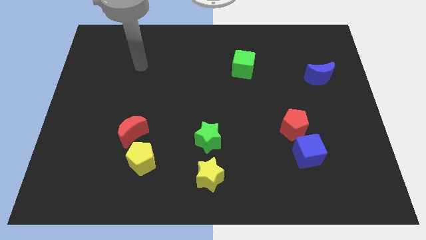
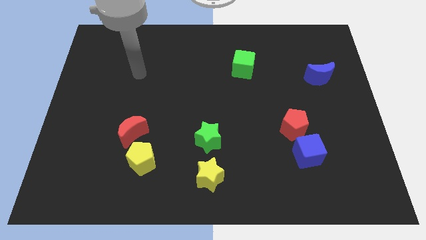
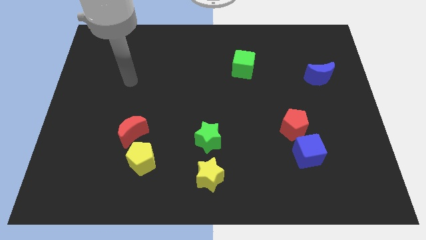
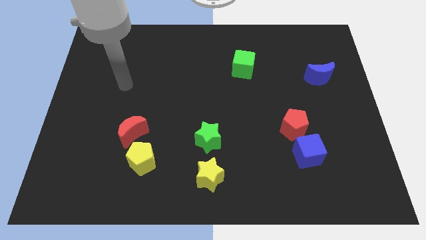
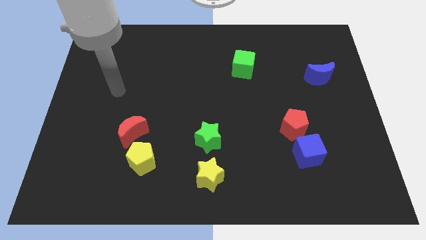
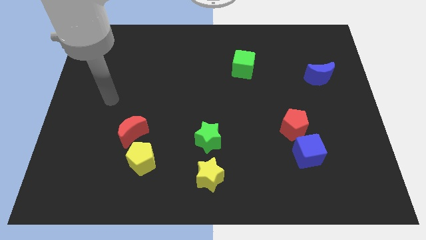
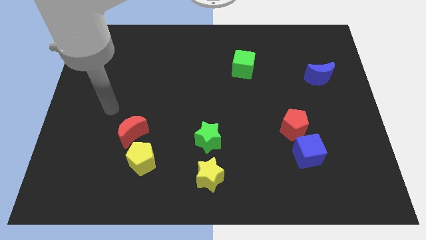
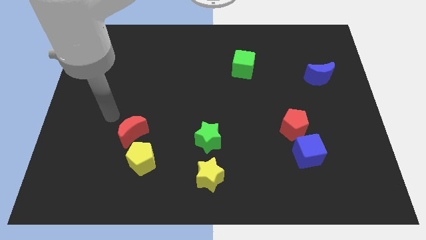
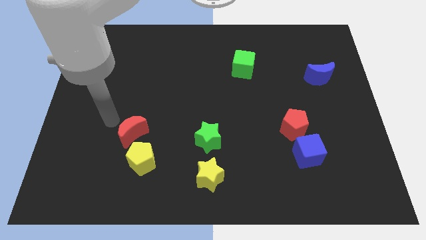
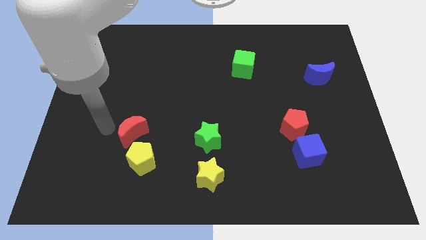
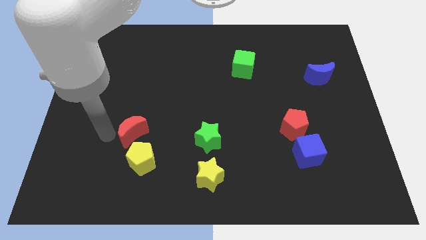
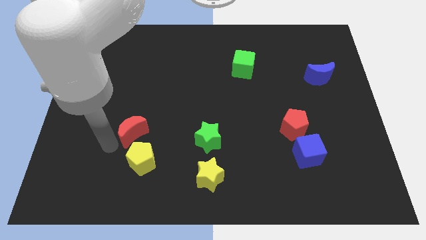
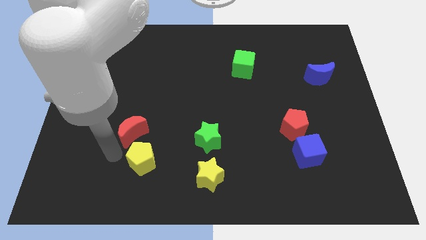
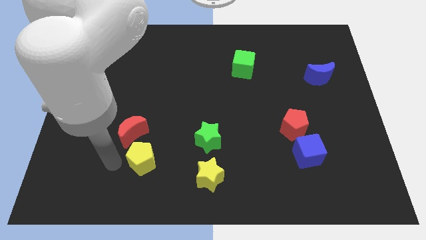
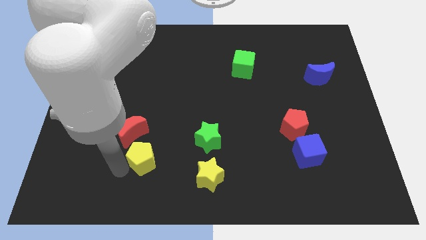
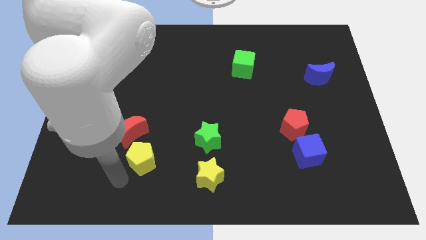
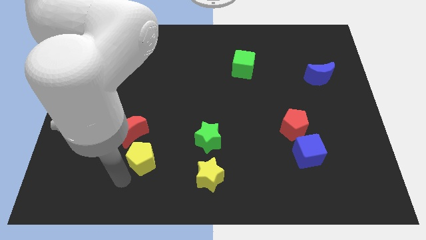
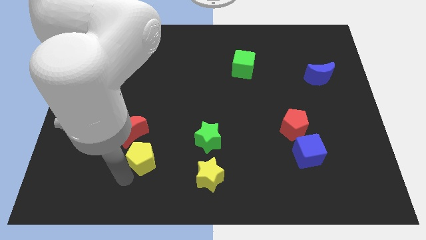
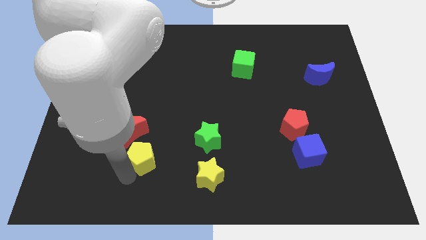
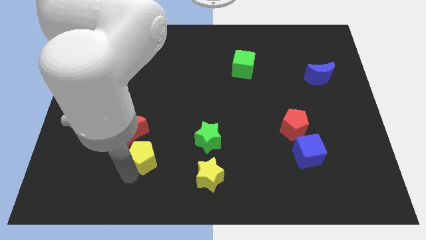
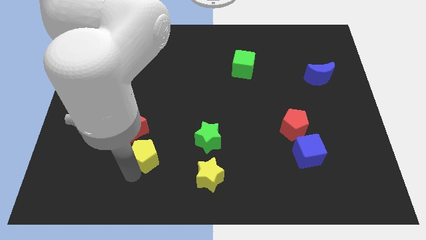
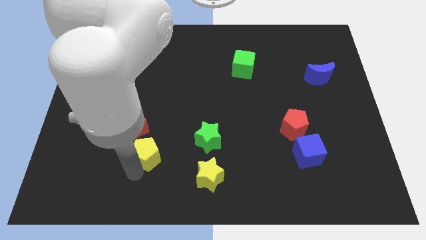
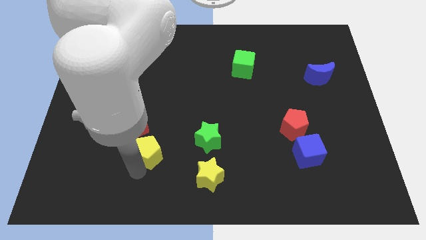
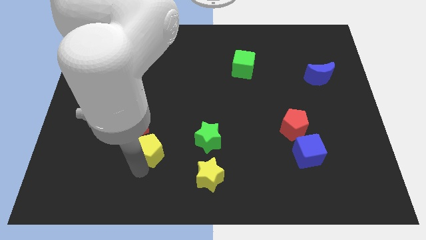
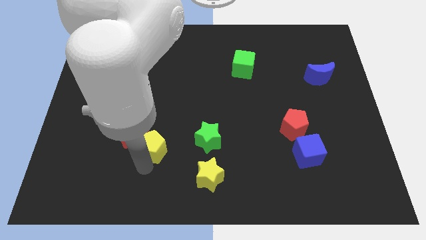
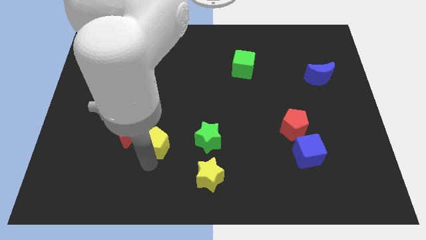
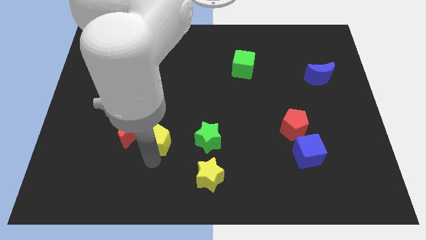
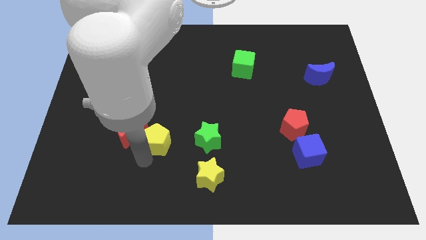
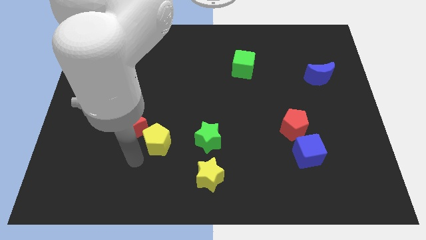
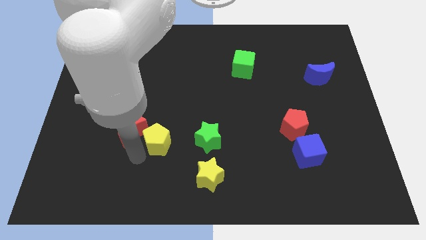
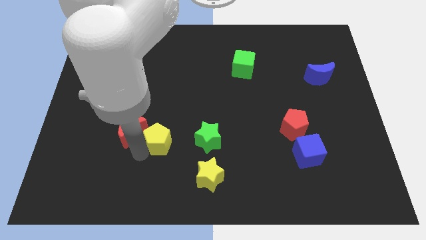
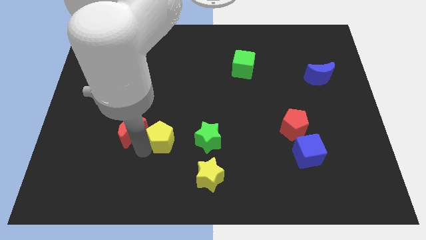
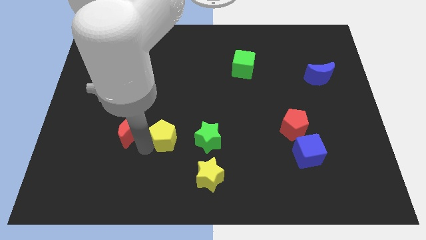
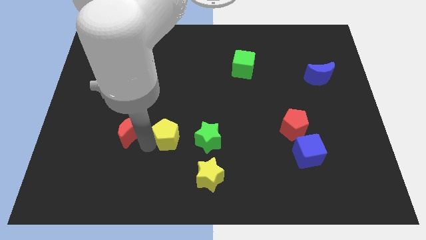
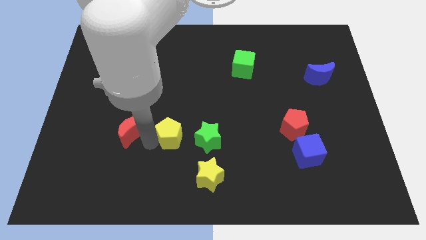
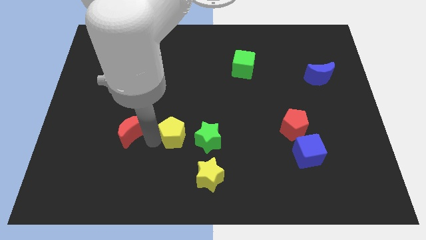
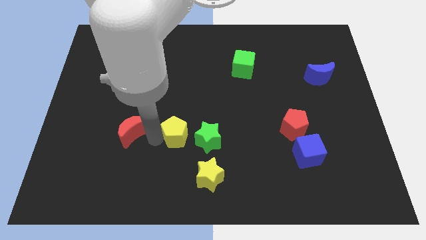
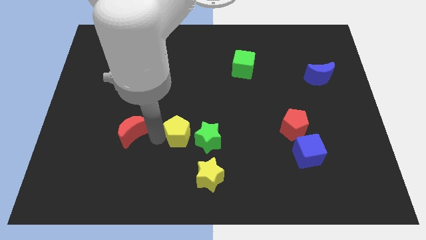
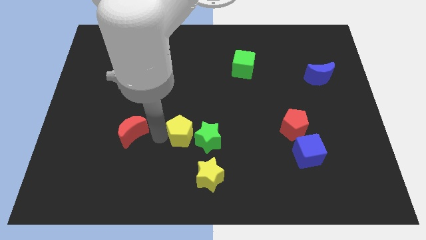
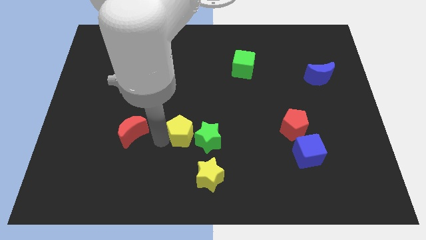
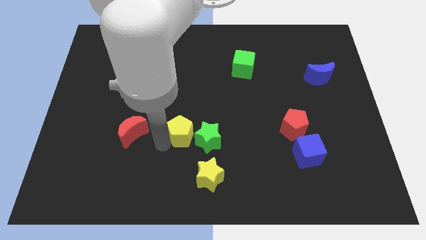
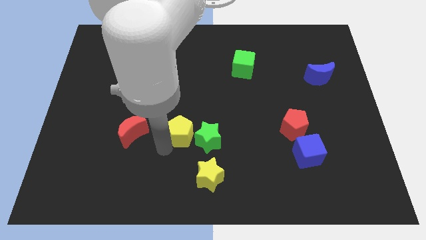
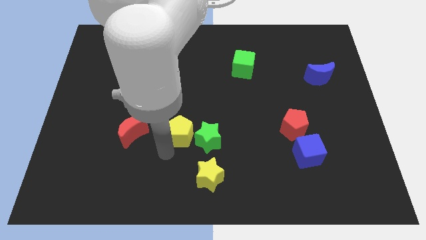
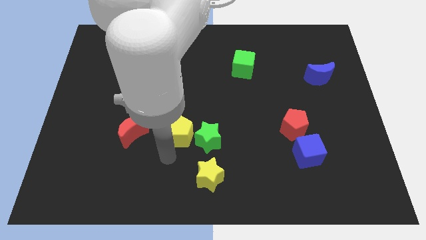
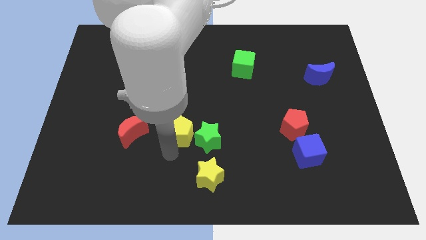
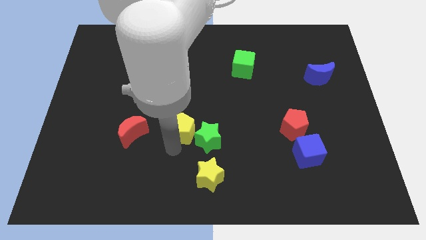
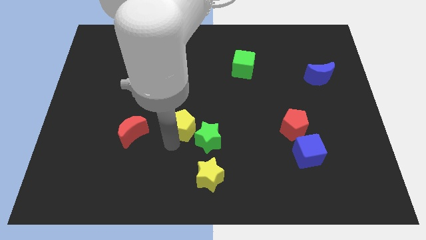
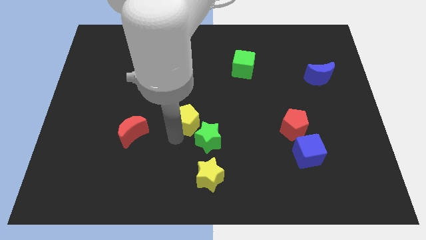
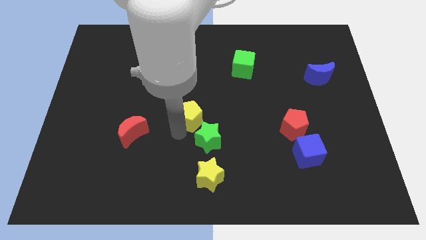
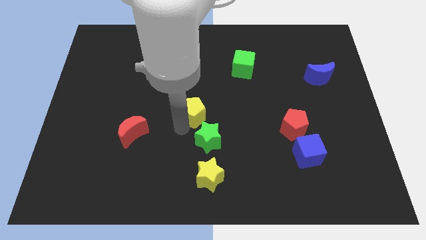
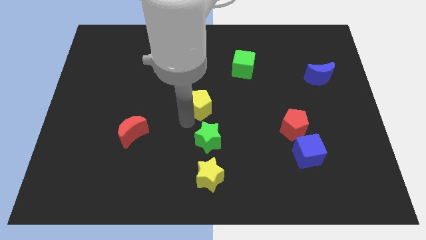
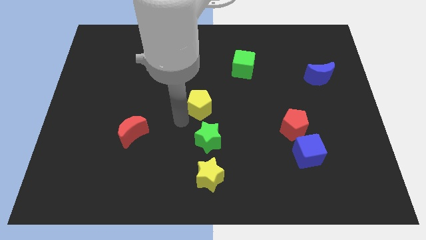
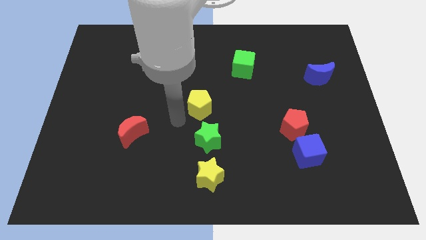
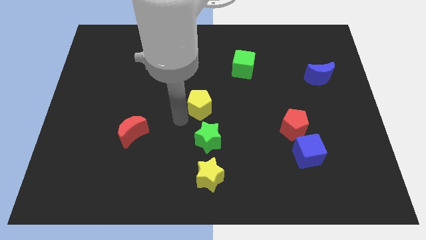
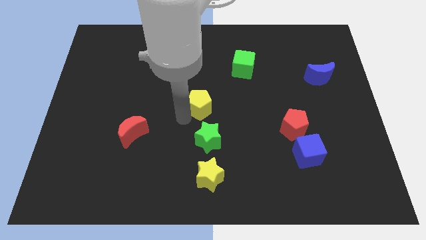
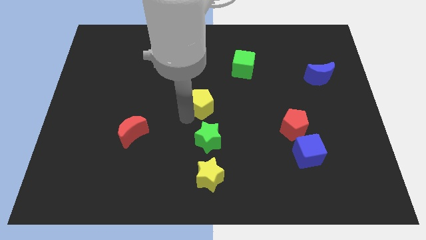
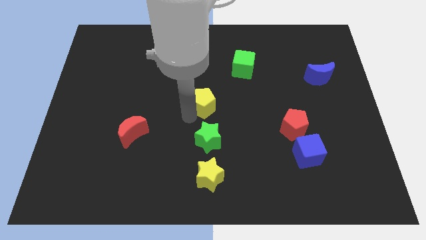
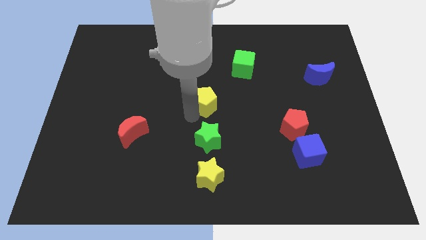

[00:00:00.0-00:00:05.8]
push the yellow pentagon upwards and right diagonally

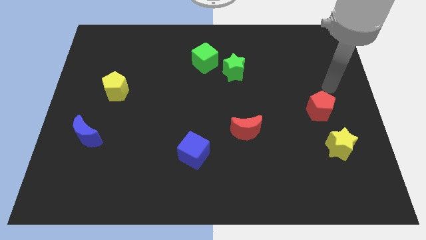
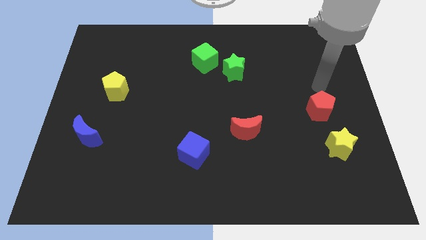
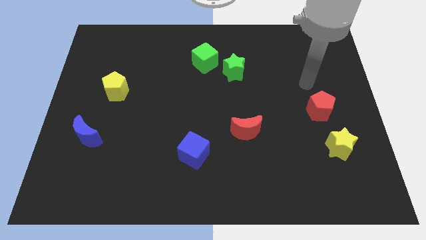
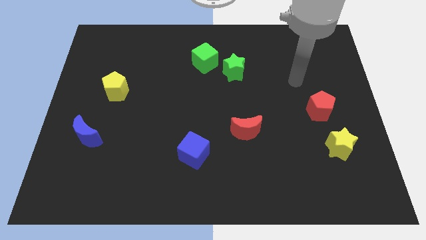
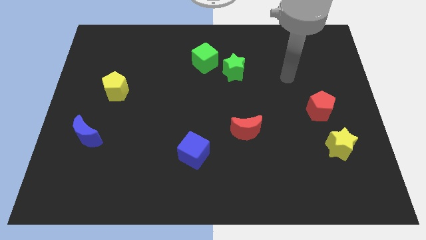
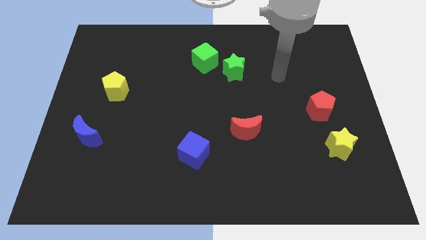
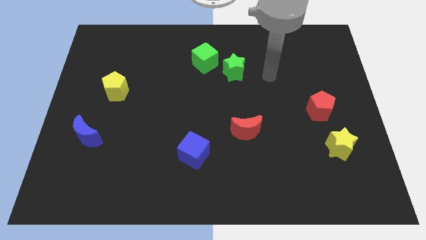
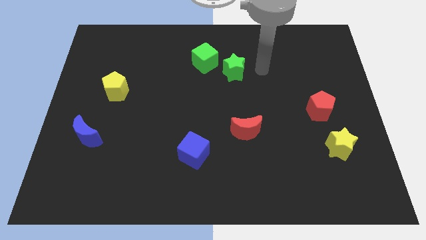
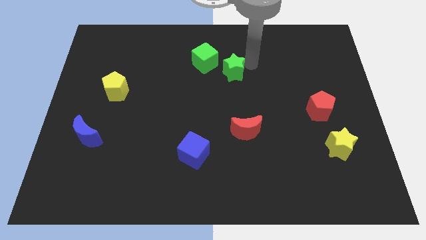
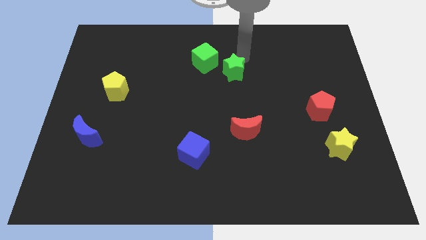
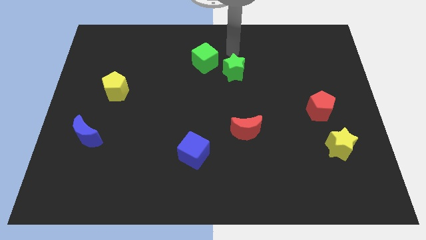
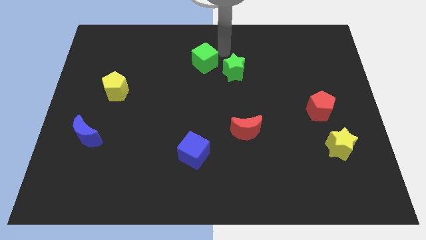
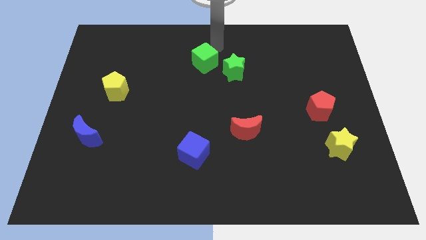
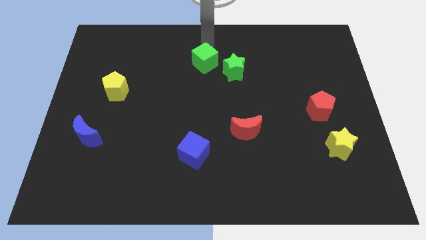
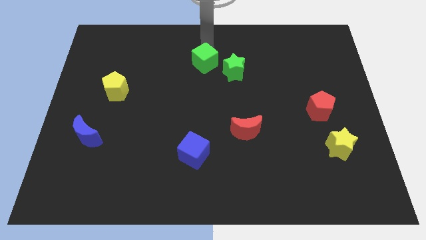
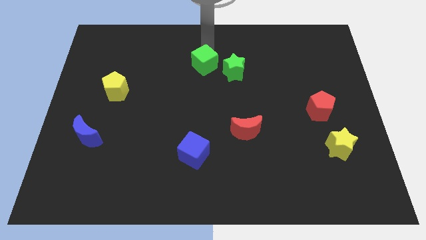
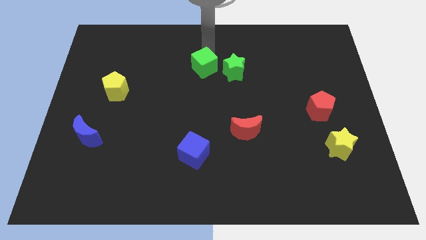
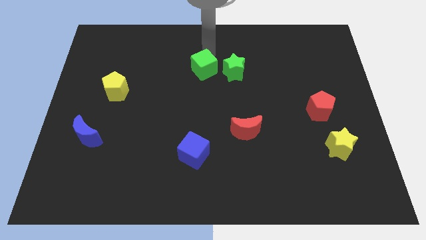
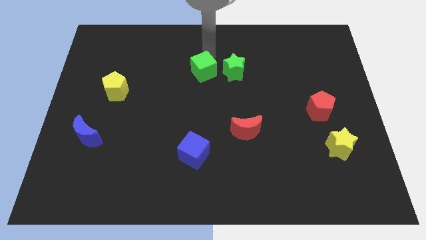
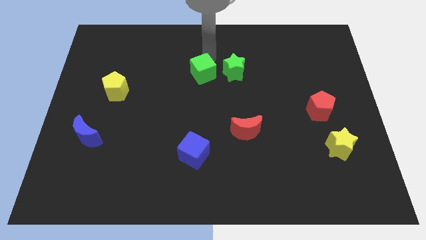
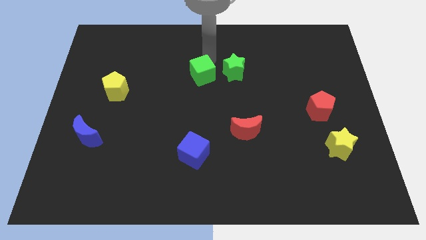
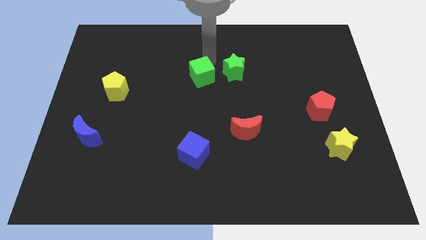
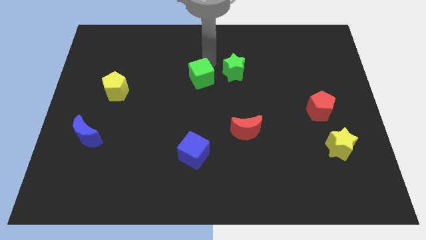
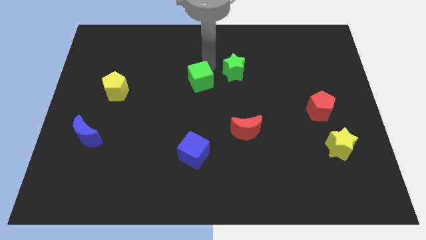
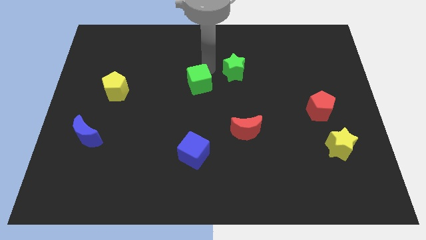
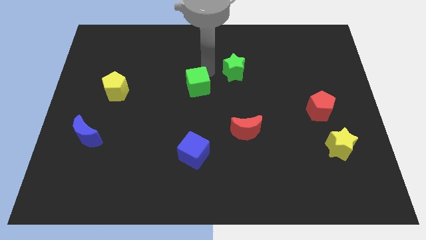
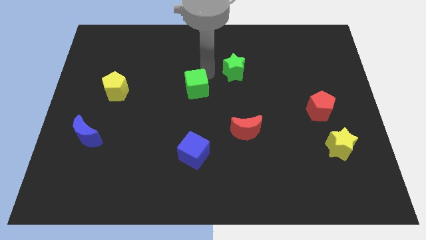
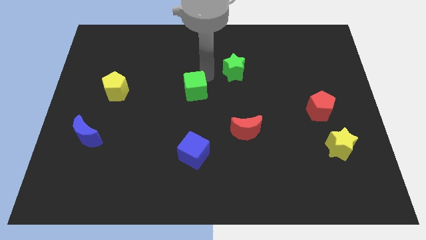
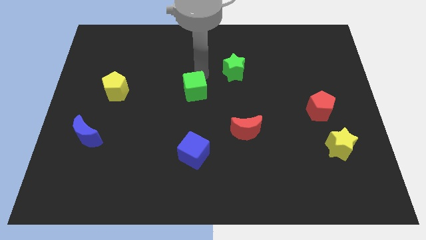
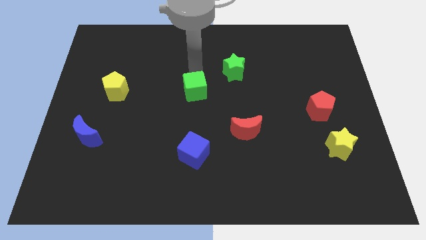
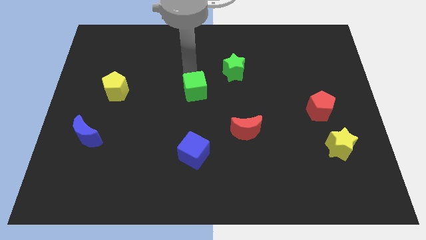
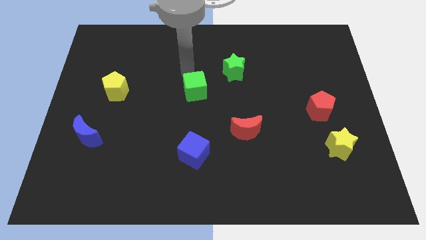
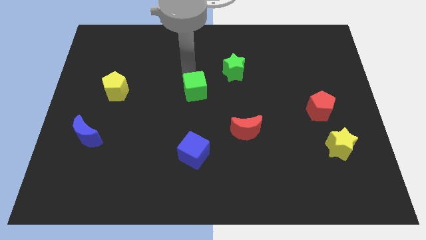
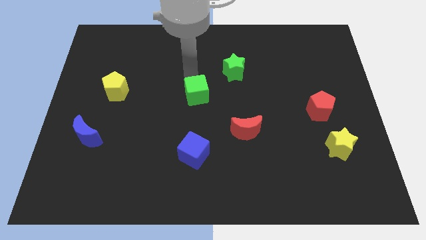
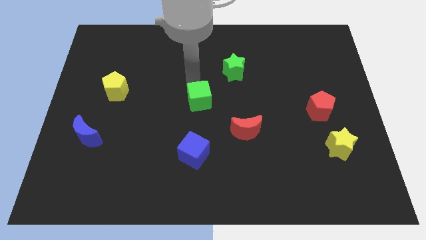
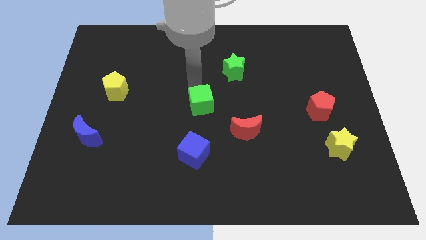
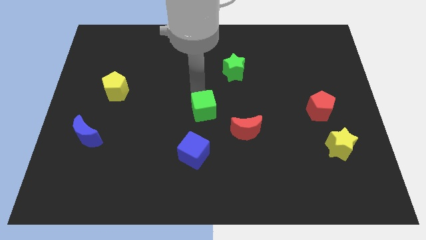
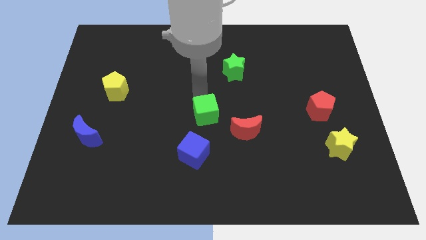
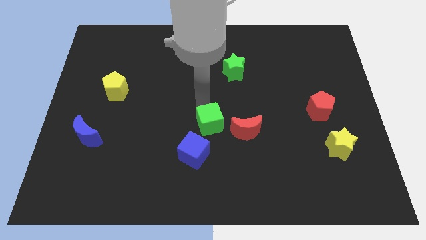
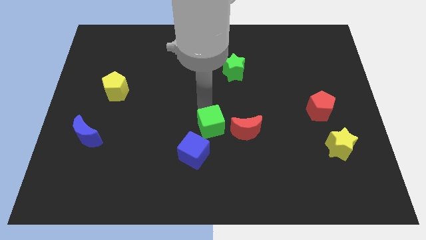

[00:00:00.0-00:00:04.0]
push the green cube down
